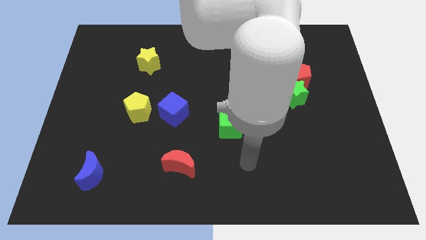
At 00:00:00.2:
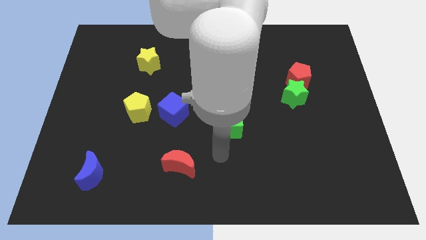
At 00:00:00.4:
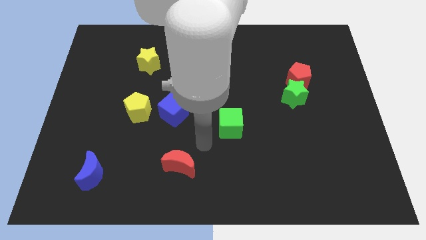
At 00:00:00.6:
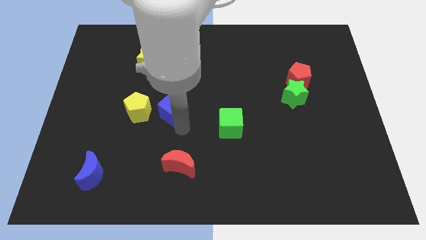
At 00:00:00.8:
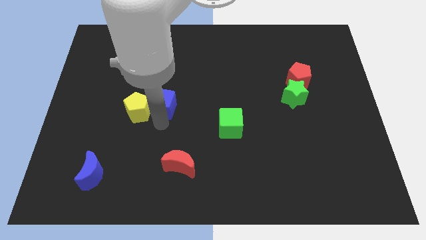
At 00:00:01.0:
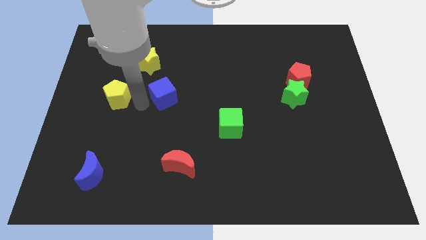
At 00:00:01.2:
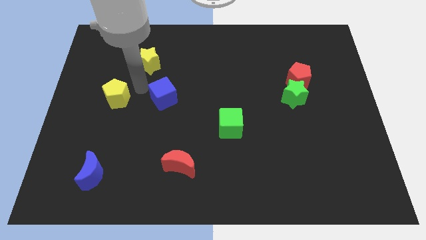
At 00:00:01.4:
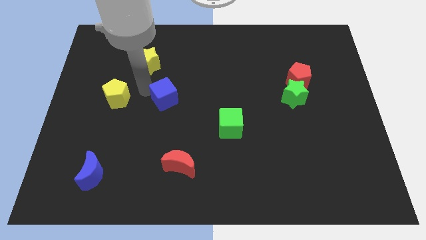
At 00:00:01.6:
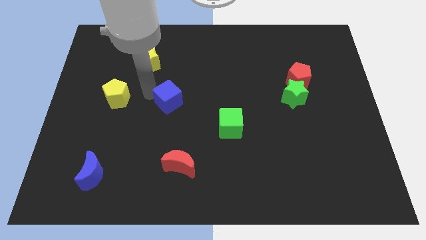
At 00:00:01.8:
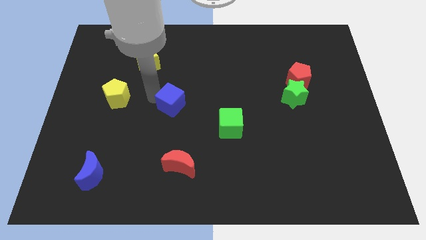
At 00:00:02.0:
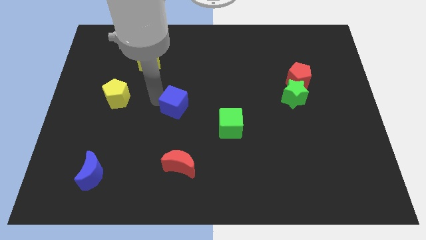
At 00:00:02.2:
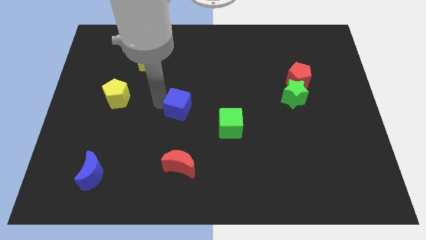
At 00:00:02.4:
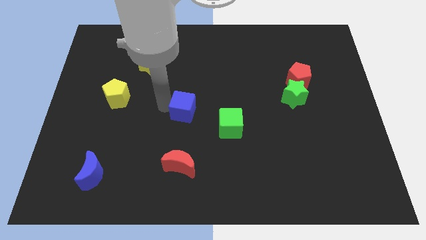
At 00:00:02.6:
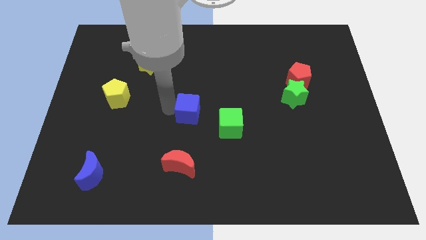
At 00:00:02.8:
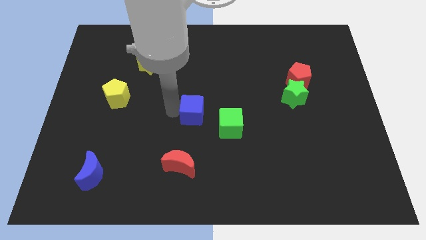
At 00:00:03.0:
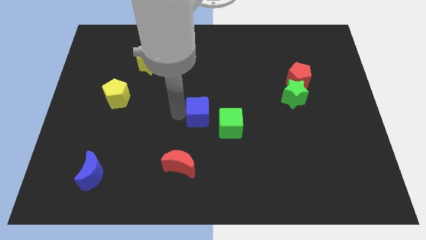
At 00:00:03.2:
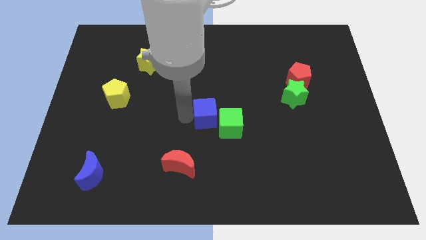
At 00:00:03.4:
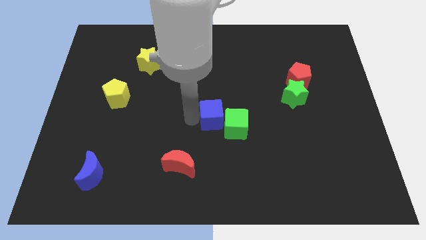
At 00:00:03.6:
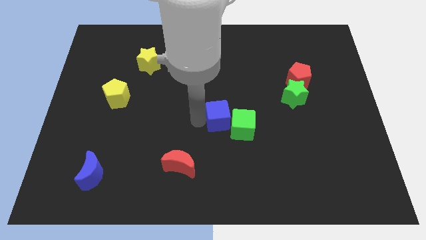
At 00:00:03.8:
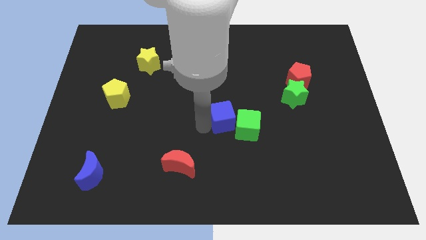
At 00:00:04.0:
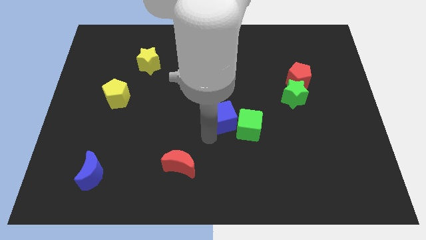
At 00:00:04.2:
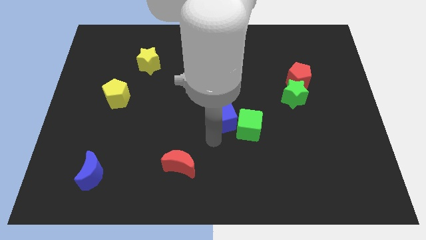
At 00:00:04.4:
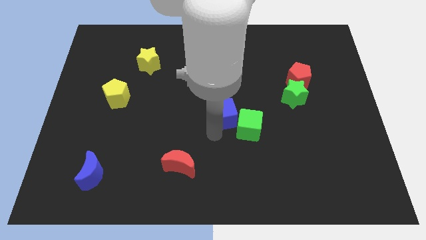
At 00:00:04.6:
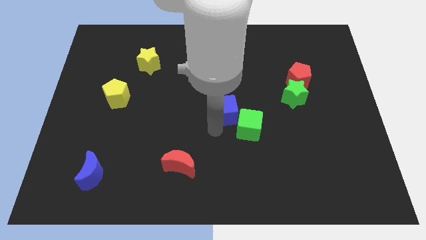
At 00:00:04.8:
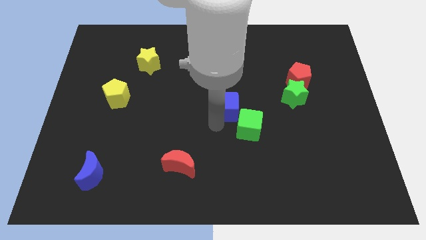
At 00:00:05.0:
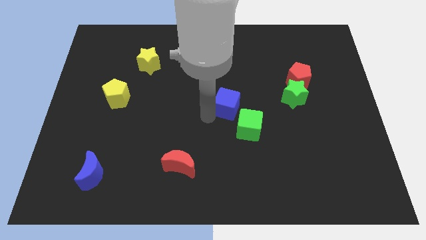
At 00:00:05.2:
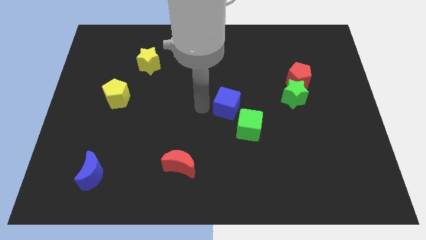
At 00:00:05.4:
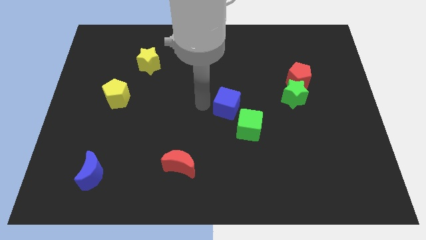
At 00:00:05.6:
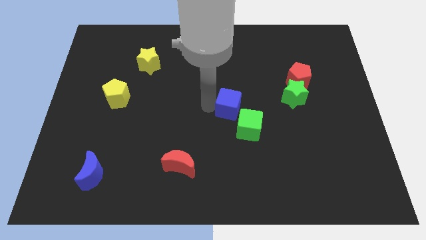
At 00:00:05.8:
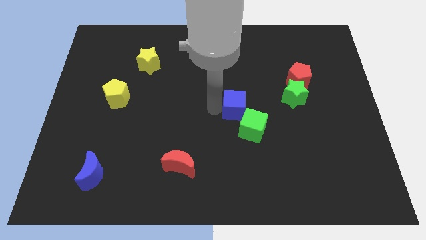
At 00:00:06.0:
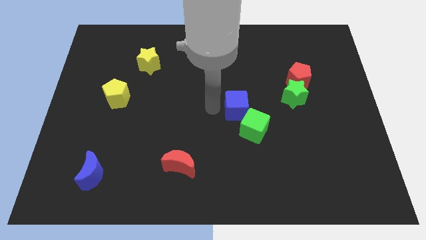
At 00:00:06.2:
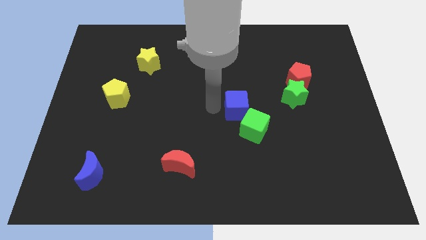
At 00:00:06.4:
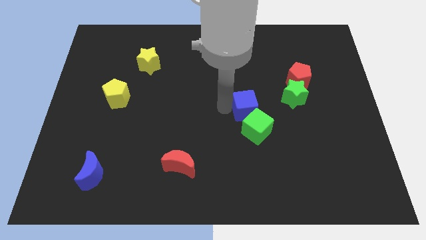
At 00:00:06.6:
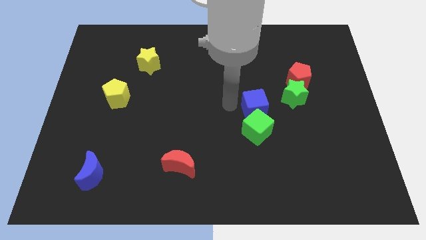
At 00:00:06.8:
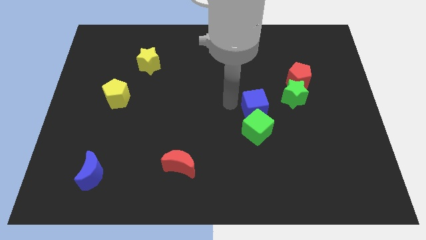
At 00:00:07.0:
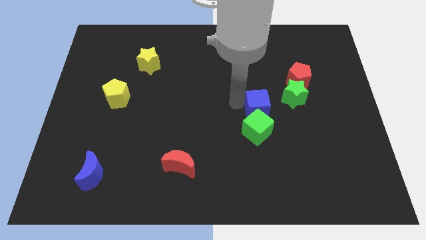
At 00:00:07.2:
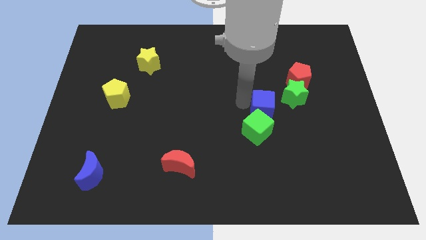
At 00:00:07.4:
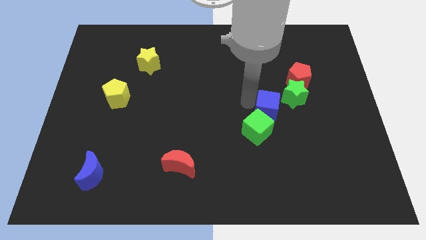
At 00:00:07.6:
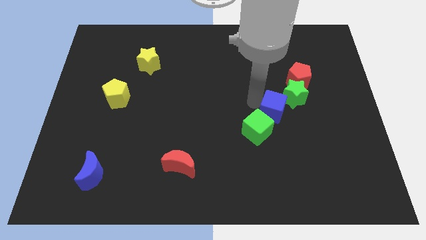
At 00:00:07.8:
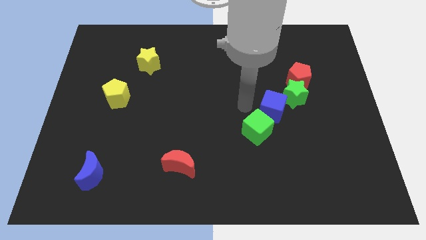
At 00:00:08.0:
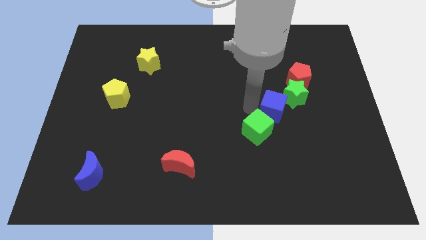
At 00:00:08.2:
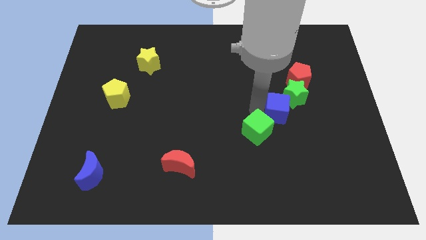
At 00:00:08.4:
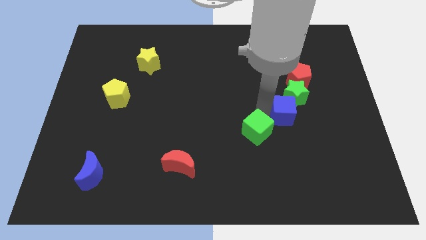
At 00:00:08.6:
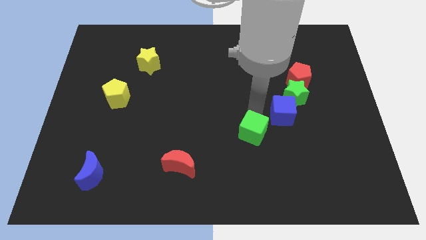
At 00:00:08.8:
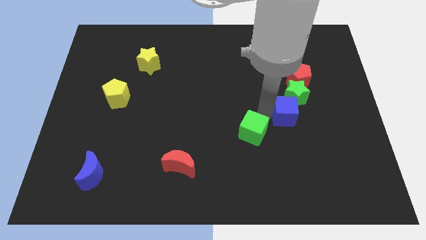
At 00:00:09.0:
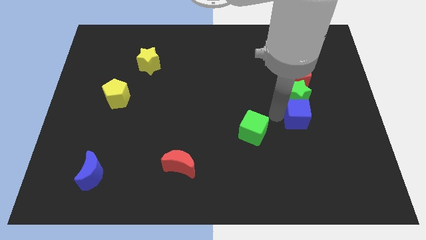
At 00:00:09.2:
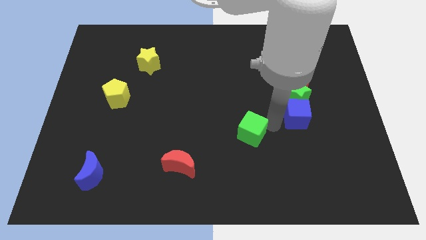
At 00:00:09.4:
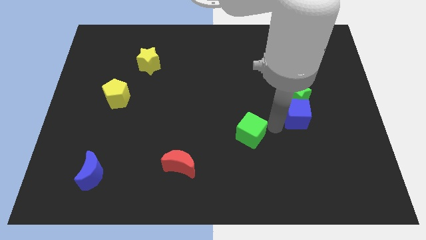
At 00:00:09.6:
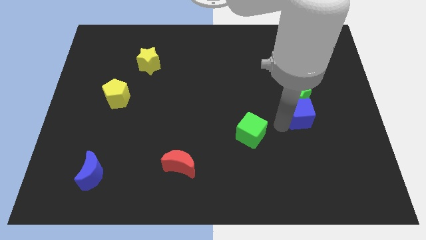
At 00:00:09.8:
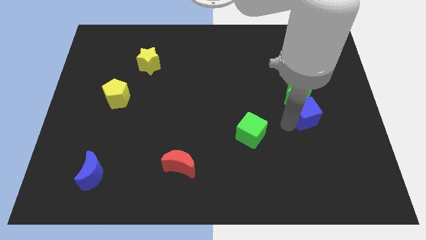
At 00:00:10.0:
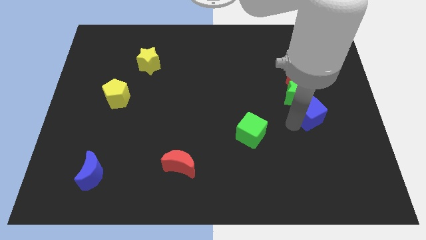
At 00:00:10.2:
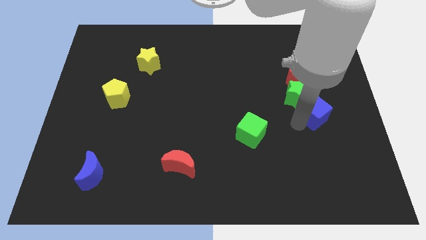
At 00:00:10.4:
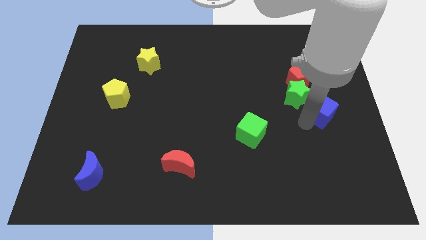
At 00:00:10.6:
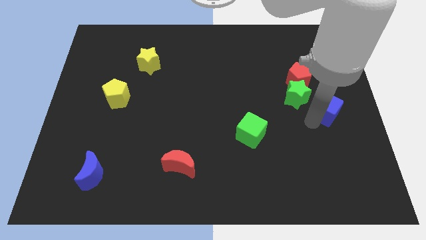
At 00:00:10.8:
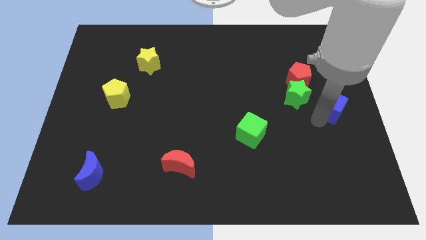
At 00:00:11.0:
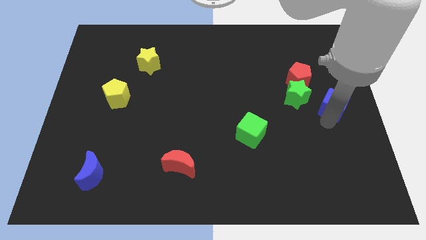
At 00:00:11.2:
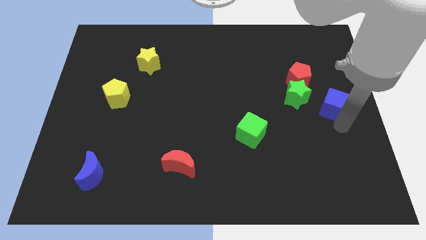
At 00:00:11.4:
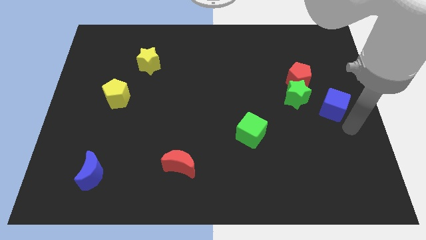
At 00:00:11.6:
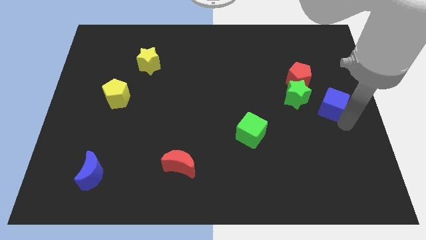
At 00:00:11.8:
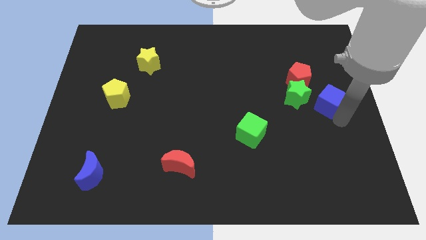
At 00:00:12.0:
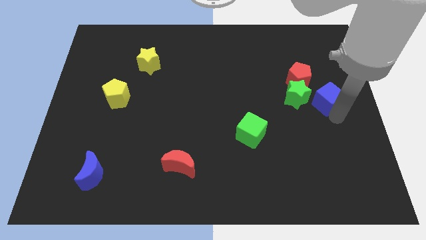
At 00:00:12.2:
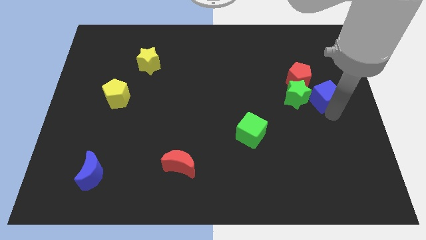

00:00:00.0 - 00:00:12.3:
push the blue cube to the top right of the green star

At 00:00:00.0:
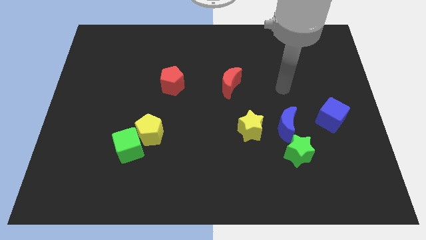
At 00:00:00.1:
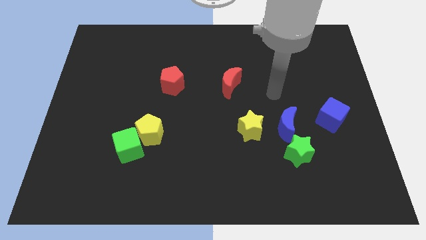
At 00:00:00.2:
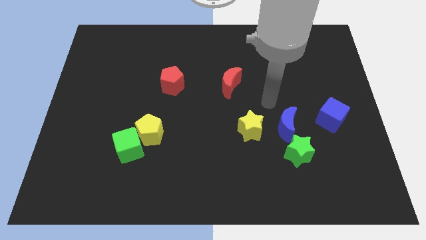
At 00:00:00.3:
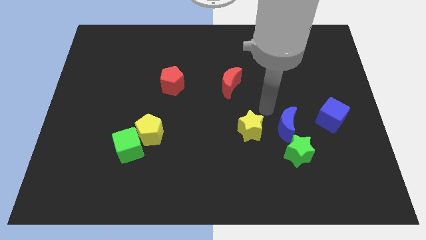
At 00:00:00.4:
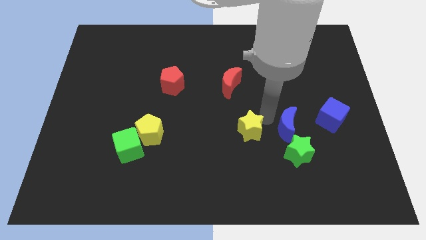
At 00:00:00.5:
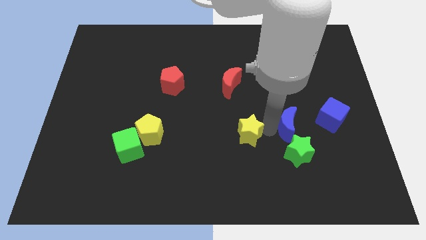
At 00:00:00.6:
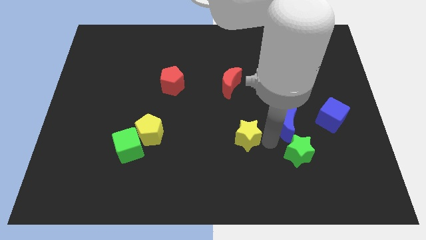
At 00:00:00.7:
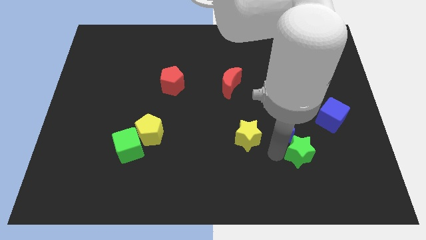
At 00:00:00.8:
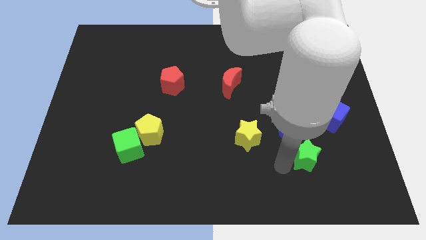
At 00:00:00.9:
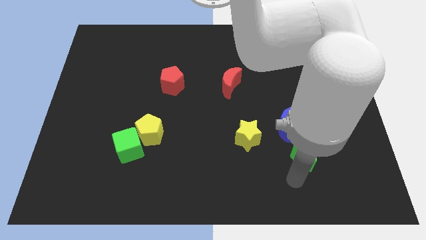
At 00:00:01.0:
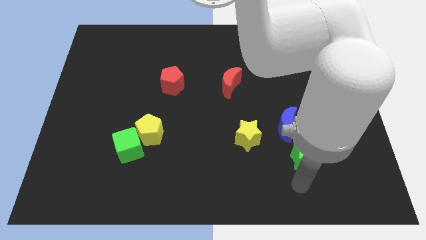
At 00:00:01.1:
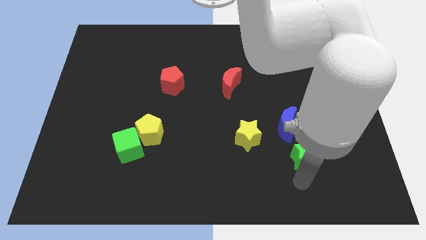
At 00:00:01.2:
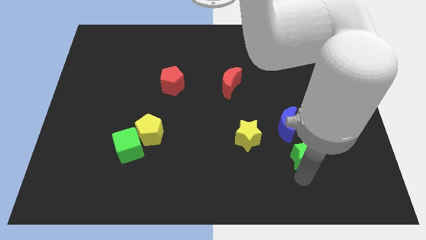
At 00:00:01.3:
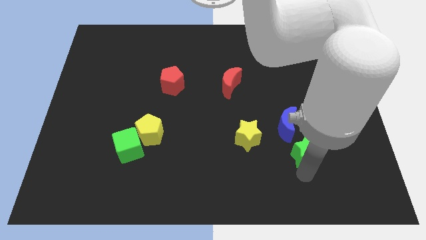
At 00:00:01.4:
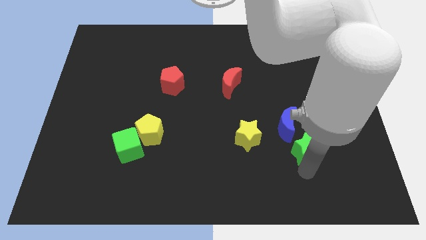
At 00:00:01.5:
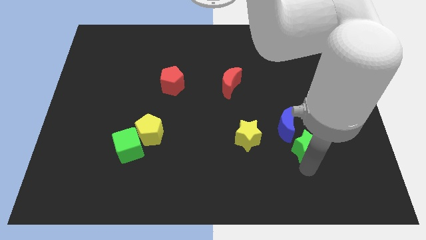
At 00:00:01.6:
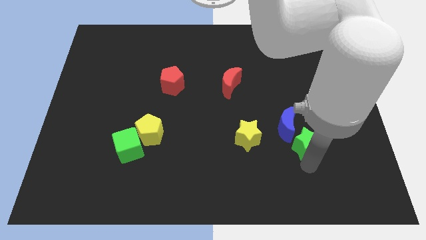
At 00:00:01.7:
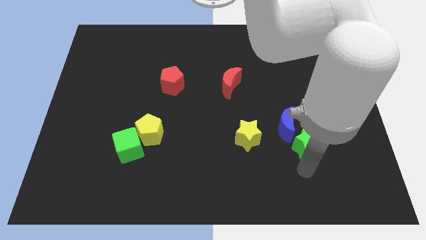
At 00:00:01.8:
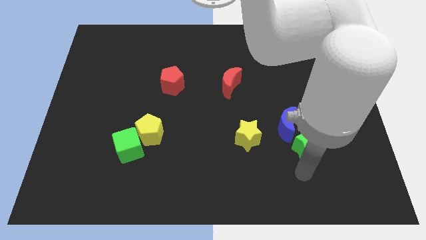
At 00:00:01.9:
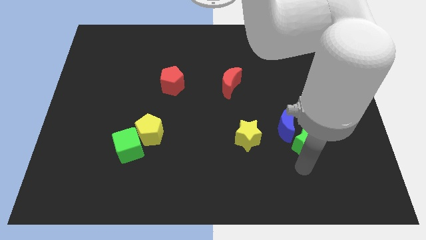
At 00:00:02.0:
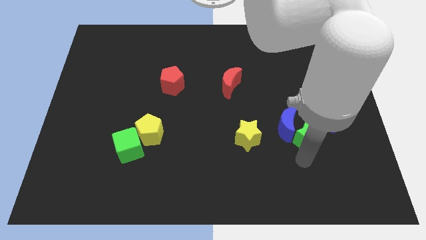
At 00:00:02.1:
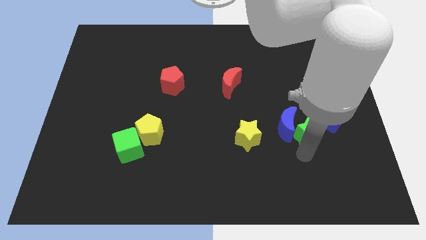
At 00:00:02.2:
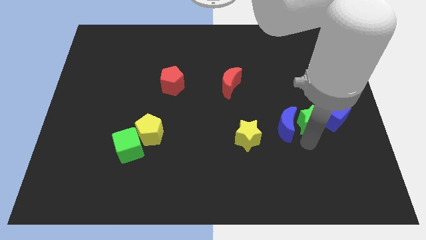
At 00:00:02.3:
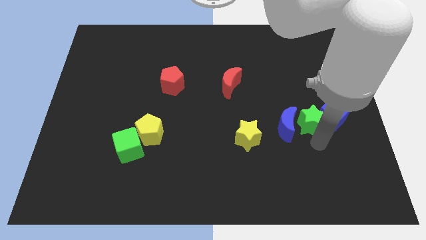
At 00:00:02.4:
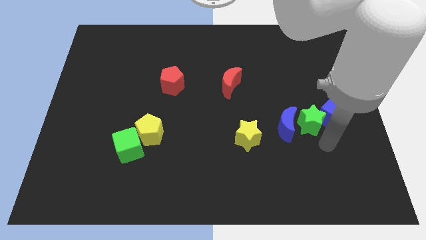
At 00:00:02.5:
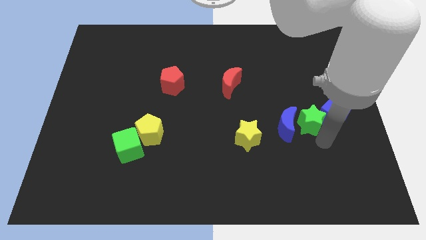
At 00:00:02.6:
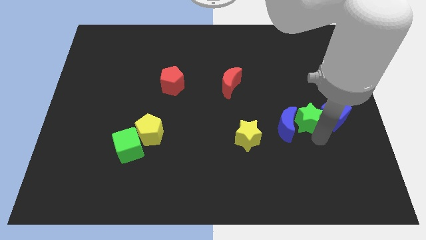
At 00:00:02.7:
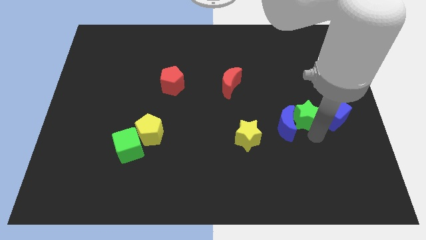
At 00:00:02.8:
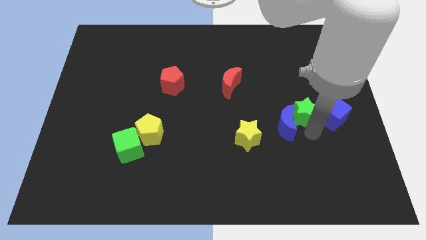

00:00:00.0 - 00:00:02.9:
put the green star to the top side of the blue moon
